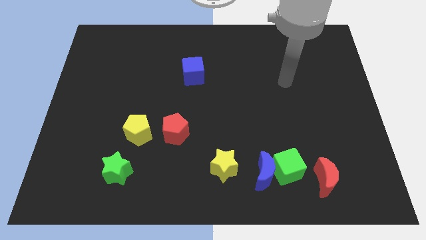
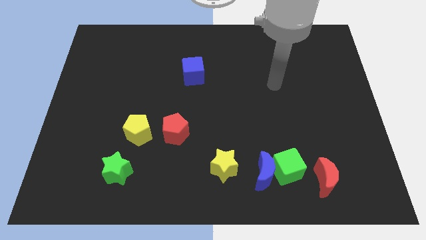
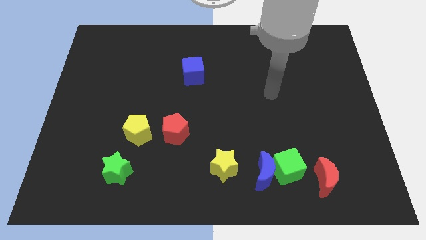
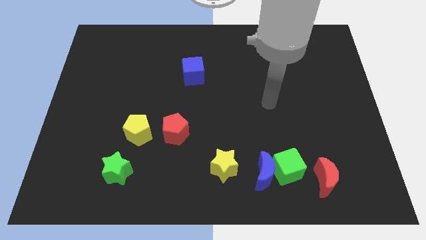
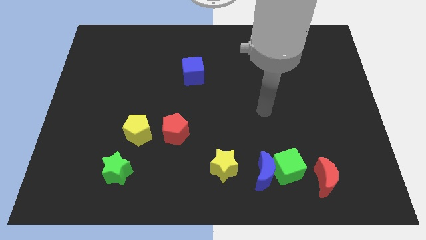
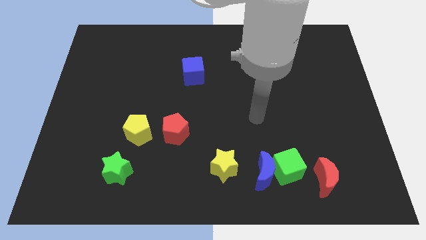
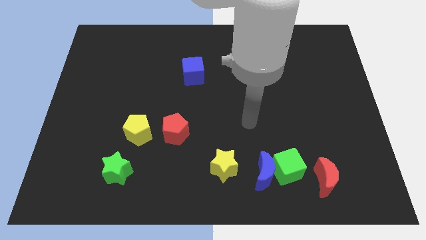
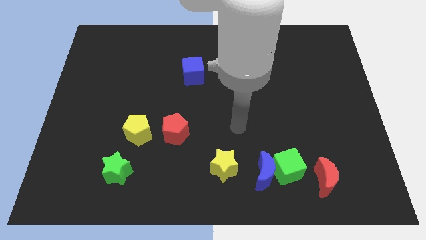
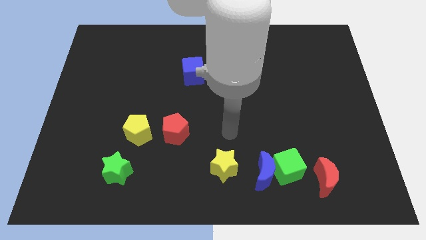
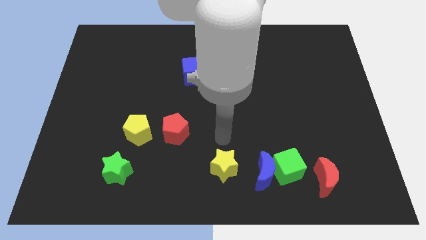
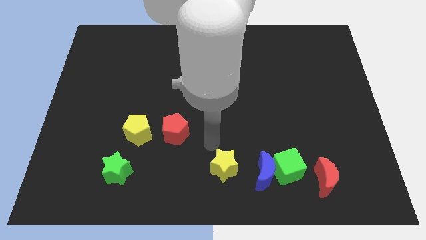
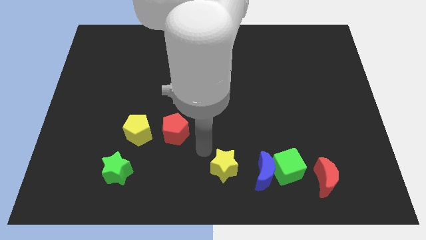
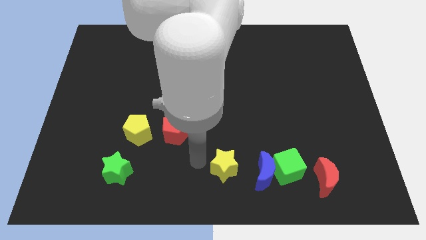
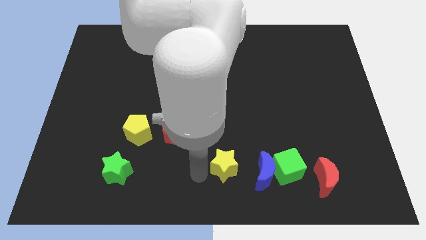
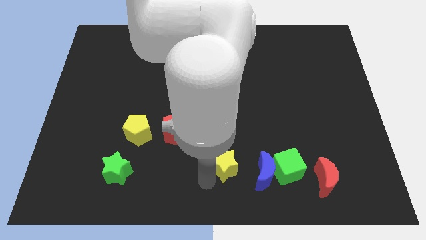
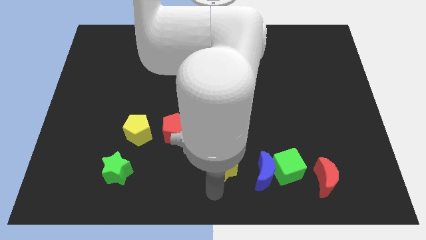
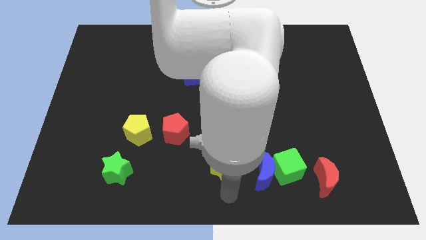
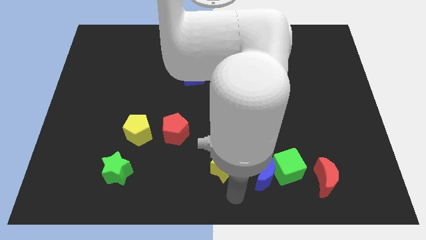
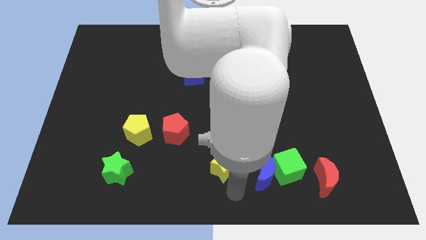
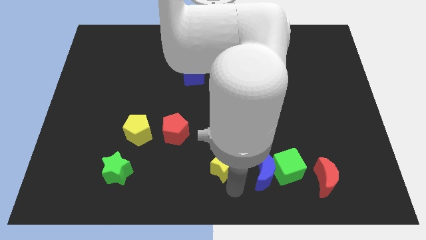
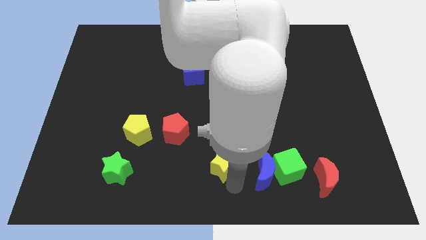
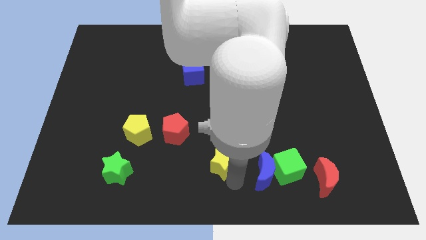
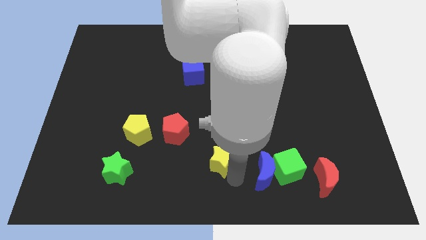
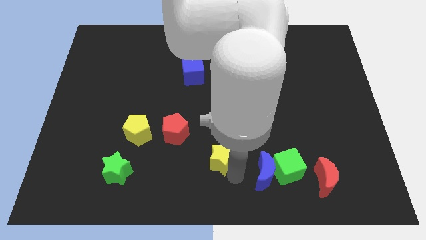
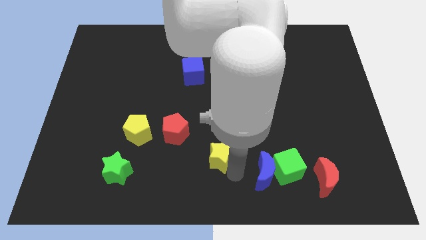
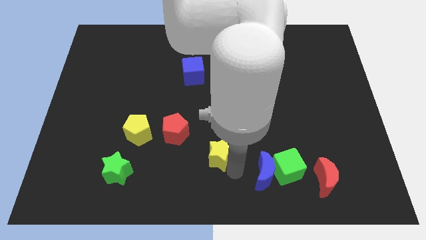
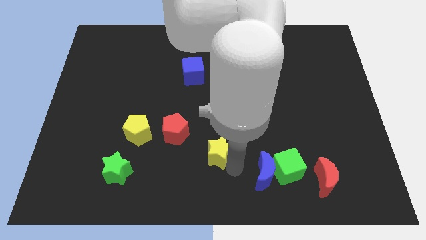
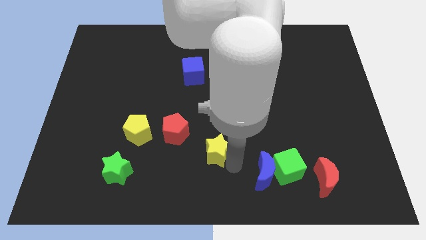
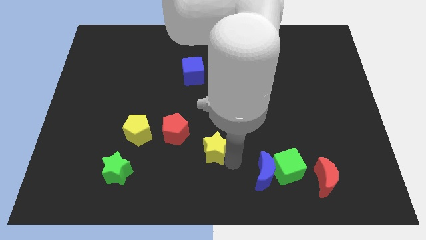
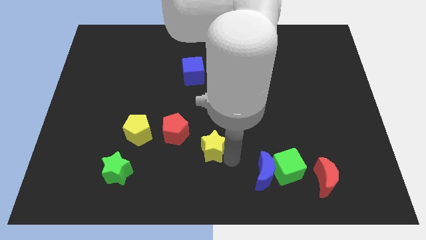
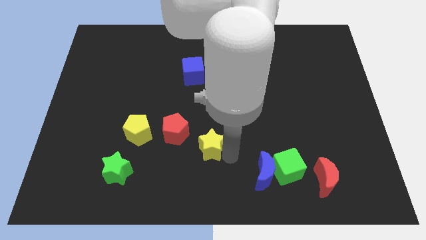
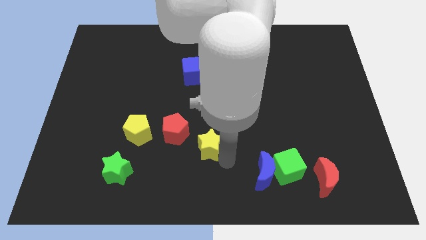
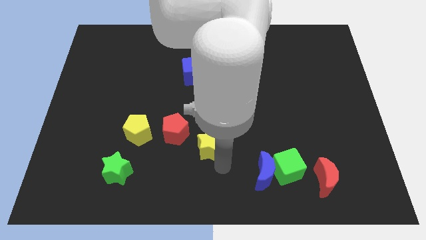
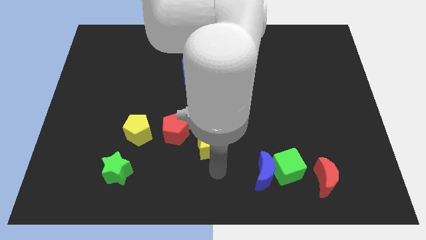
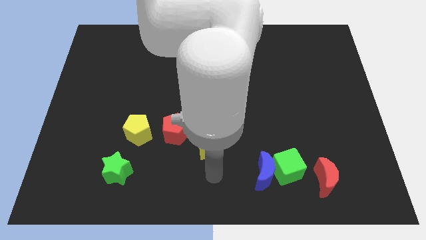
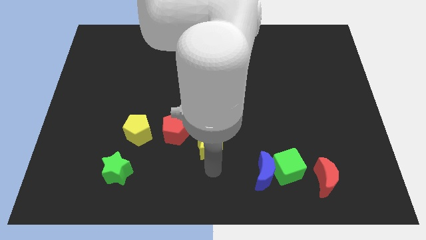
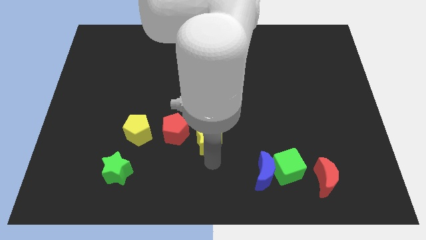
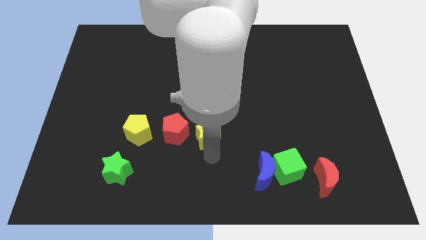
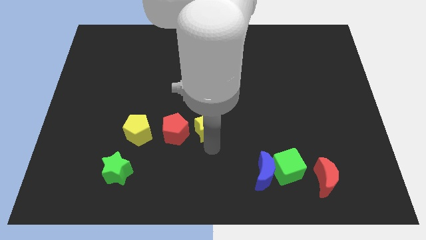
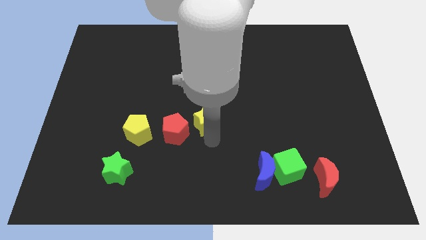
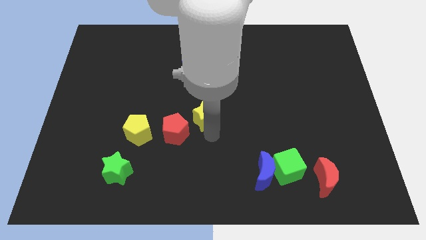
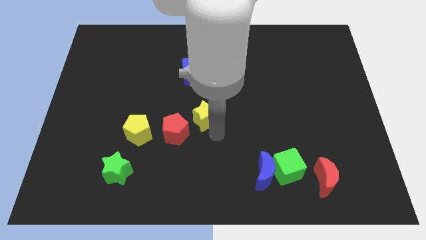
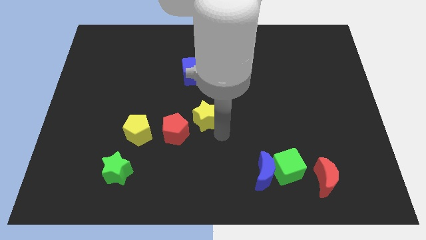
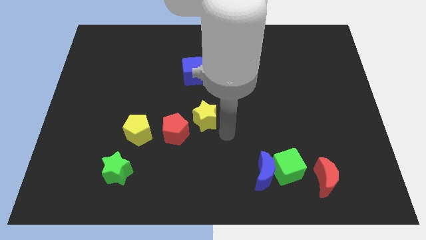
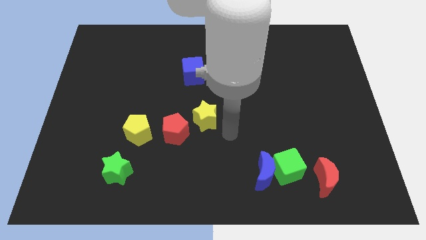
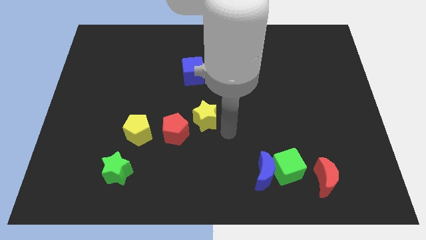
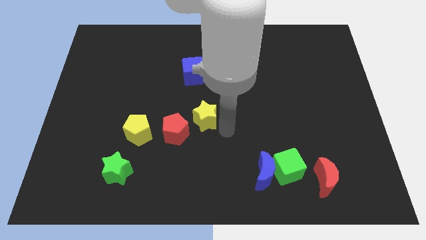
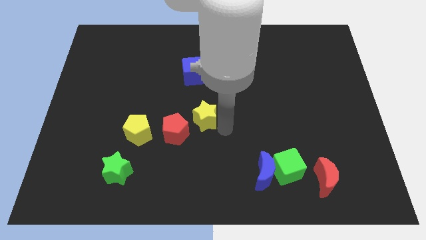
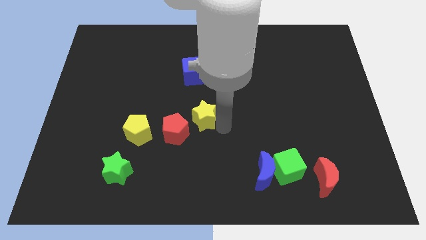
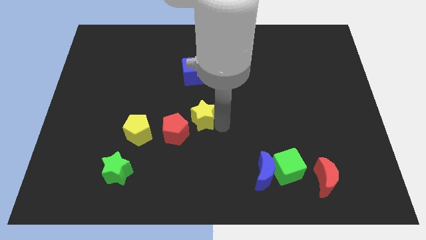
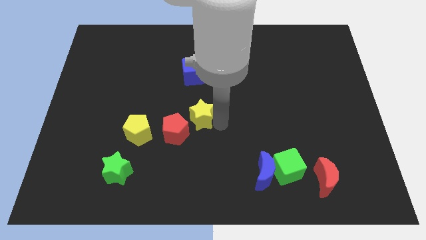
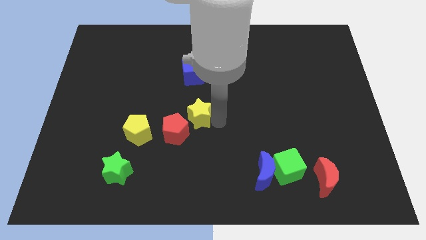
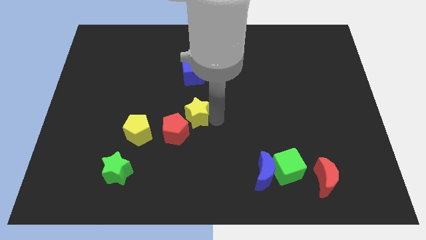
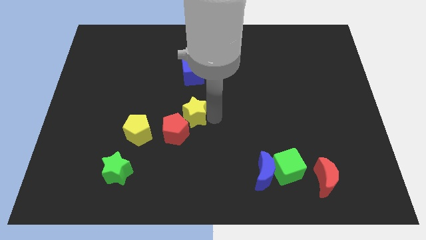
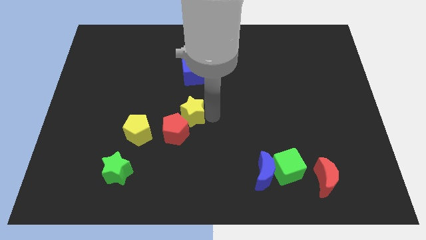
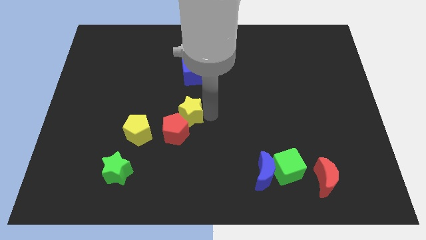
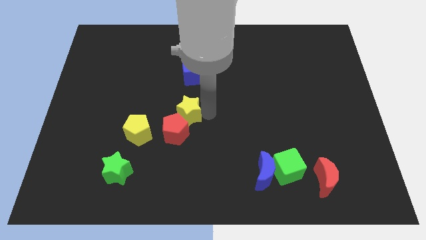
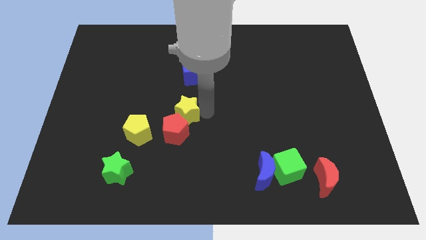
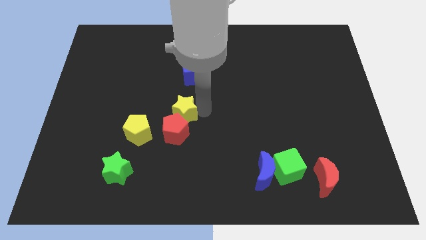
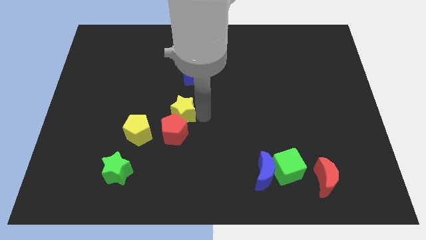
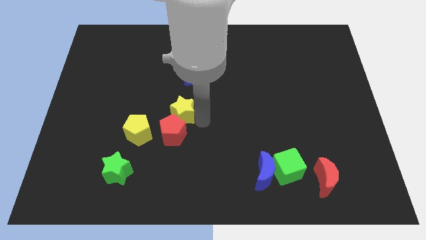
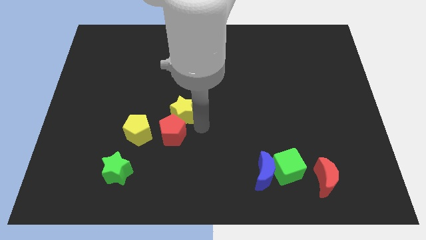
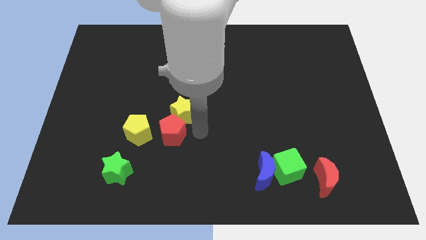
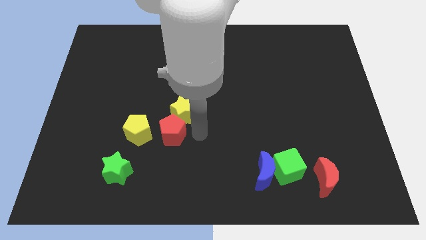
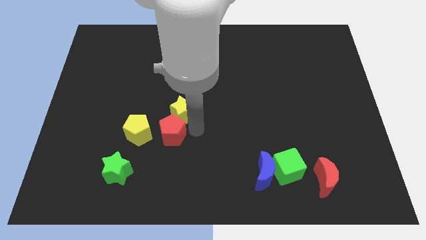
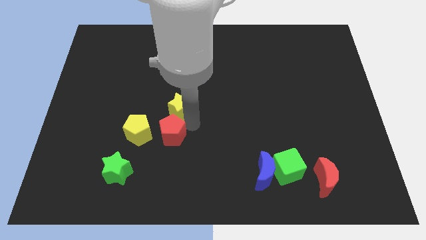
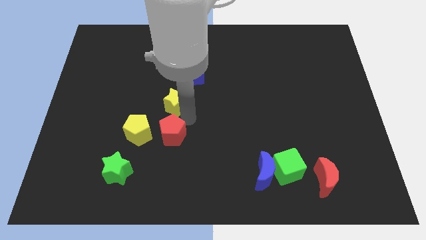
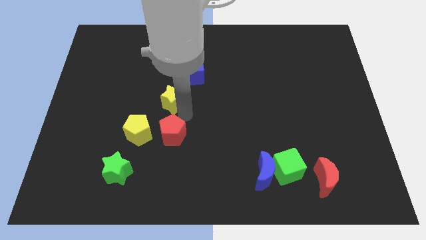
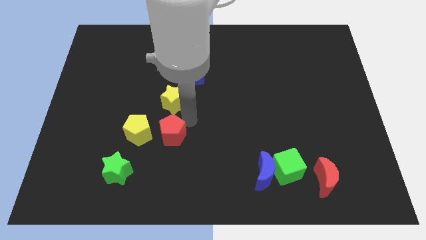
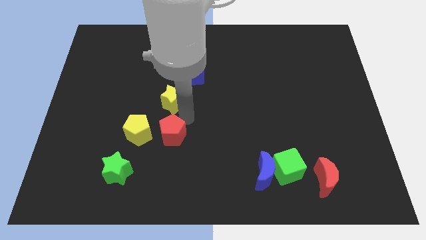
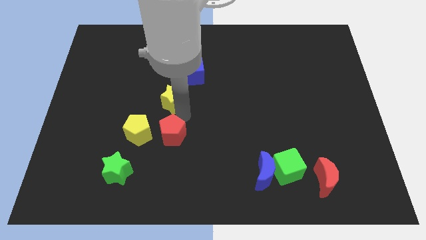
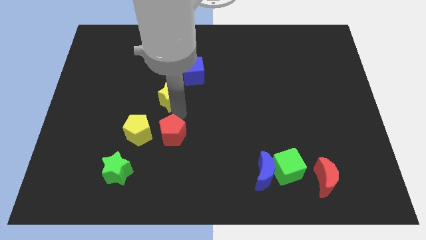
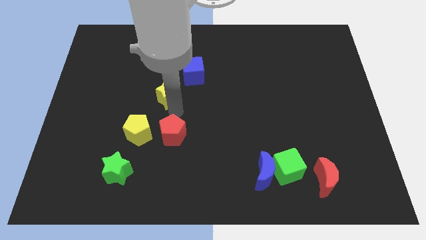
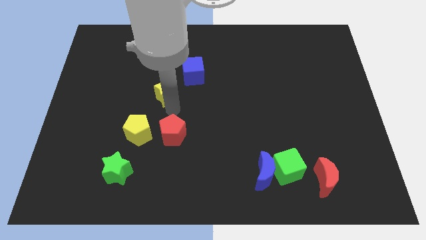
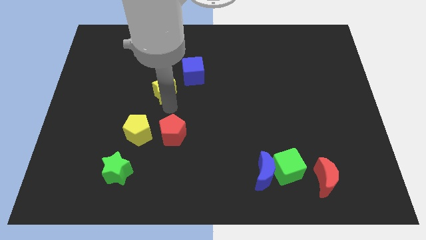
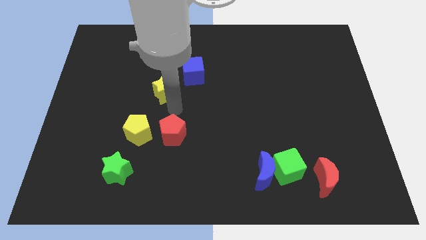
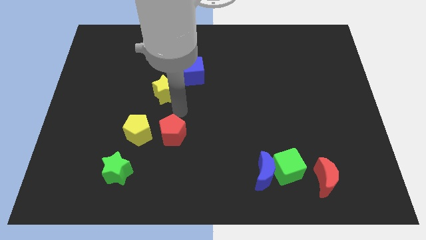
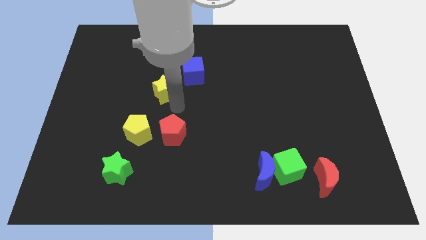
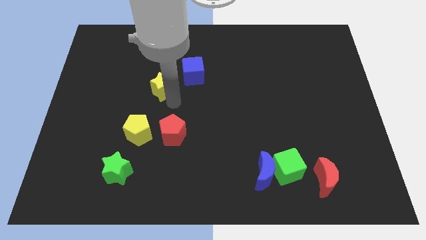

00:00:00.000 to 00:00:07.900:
slide the yellow star just left of the blue cube
